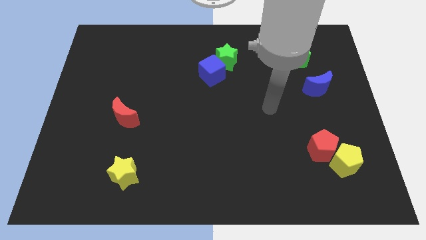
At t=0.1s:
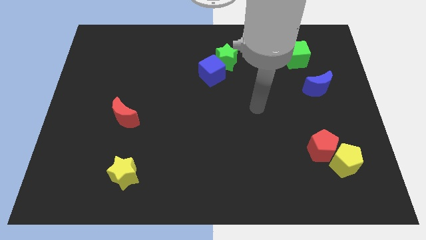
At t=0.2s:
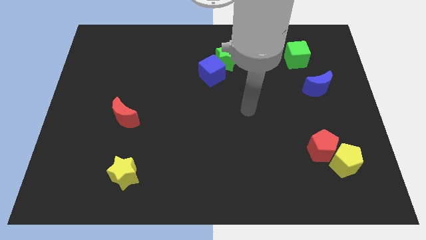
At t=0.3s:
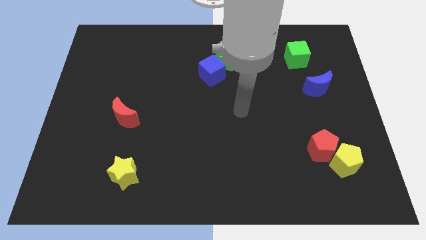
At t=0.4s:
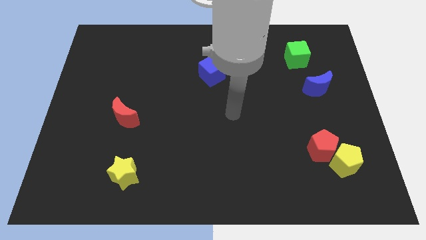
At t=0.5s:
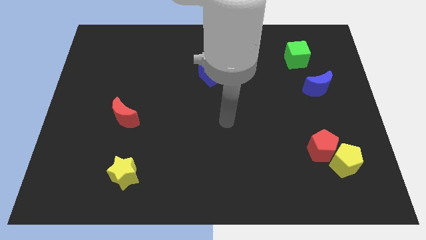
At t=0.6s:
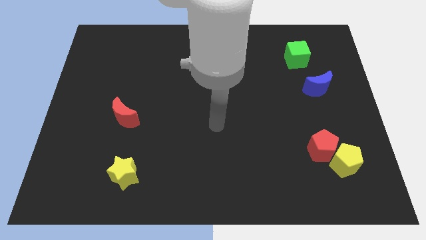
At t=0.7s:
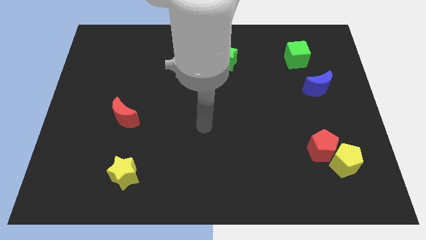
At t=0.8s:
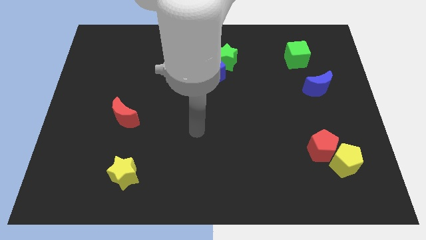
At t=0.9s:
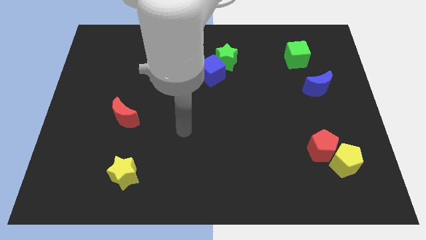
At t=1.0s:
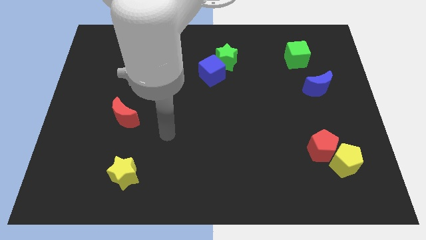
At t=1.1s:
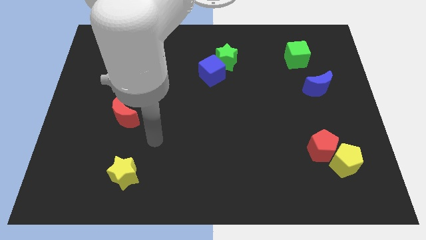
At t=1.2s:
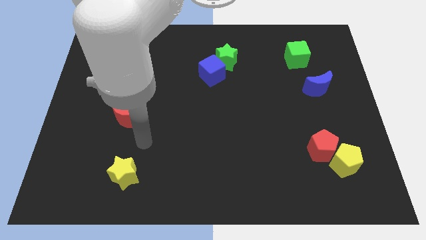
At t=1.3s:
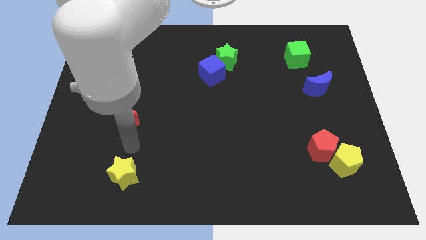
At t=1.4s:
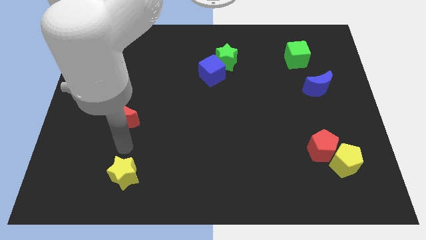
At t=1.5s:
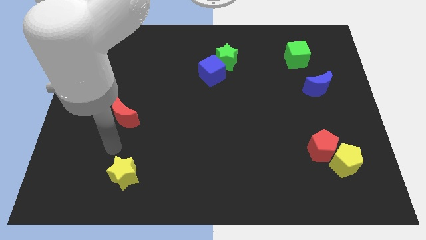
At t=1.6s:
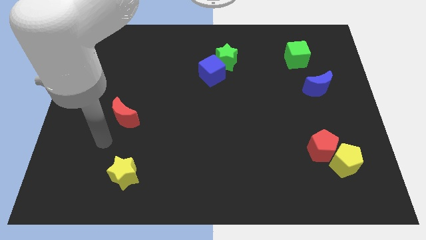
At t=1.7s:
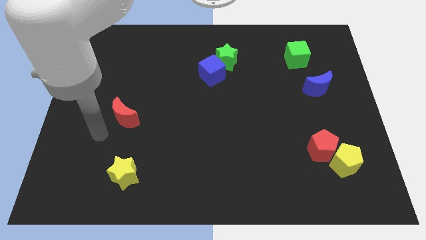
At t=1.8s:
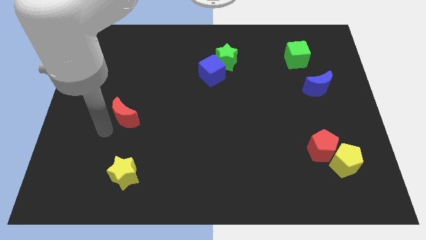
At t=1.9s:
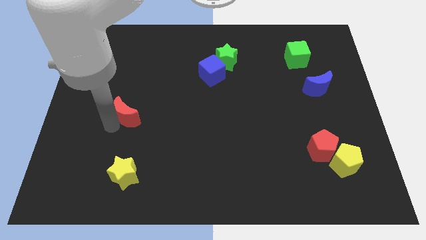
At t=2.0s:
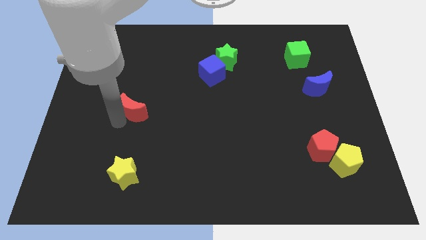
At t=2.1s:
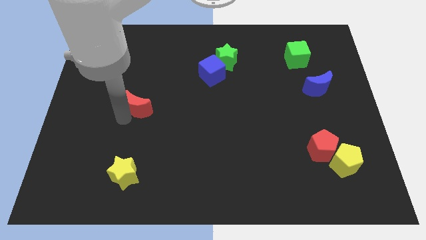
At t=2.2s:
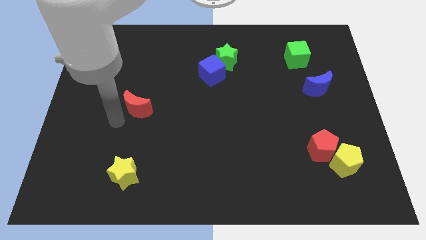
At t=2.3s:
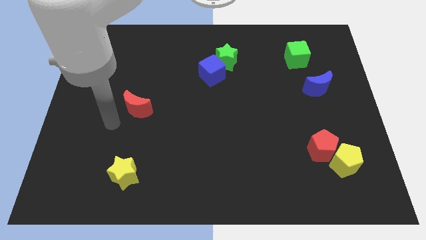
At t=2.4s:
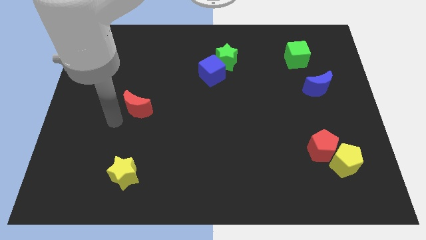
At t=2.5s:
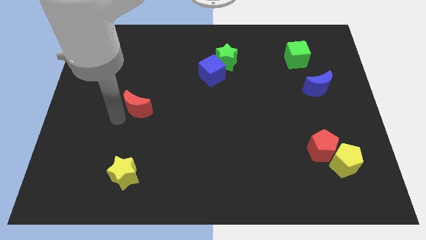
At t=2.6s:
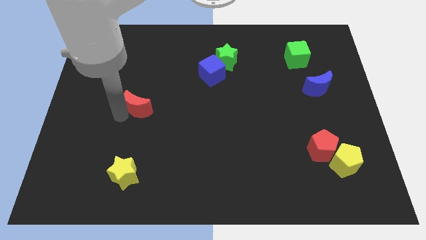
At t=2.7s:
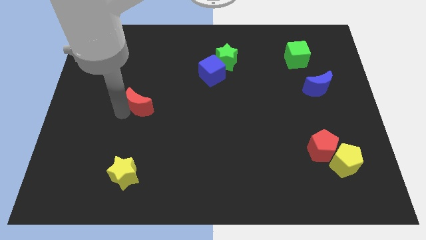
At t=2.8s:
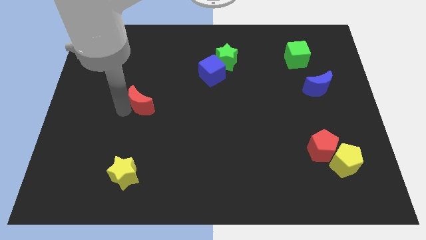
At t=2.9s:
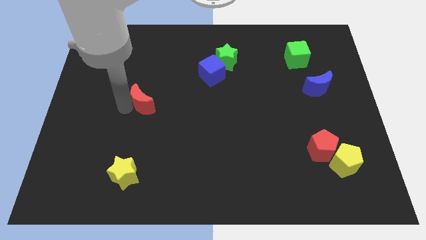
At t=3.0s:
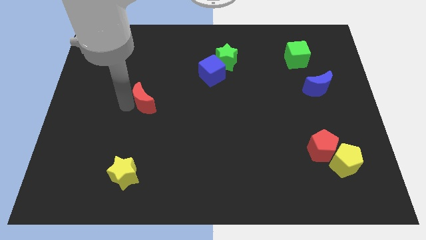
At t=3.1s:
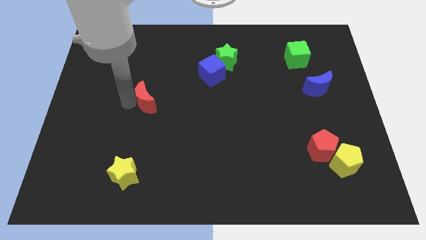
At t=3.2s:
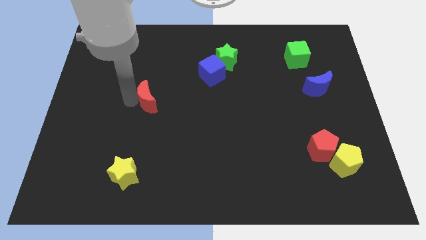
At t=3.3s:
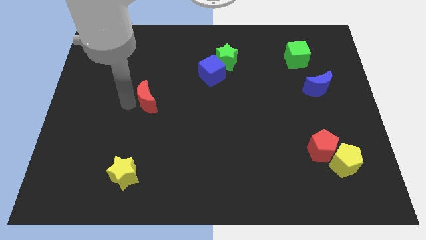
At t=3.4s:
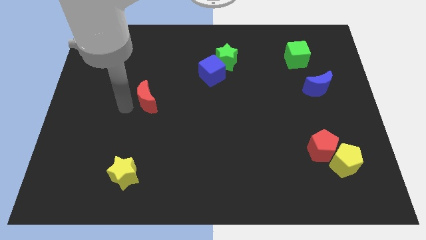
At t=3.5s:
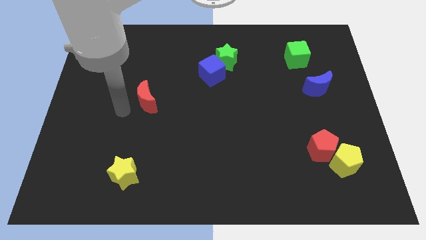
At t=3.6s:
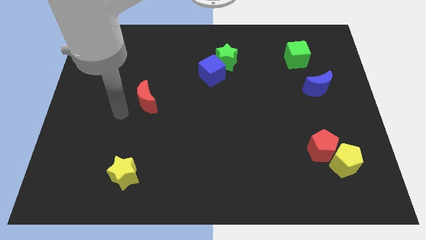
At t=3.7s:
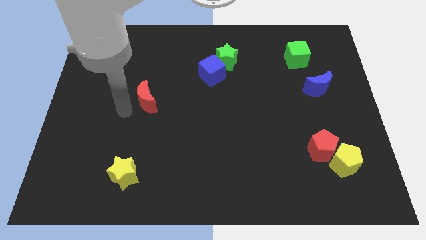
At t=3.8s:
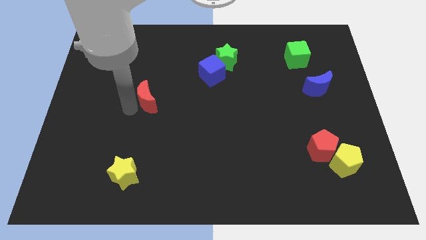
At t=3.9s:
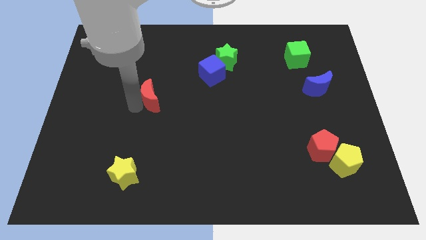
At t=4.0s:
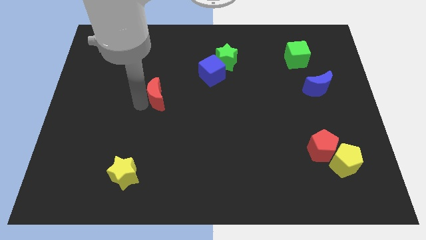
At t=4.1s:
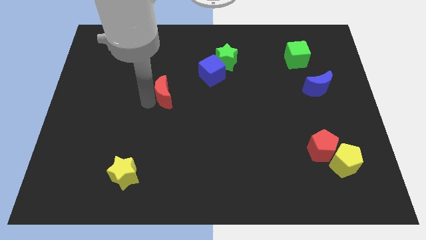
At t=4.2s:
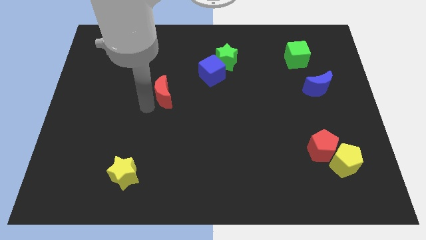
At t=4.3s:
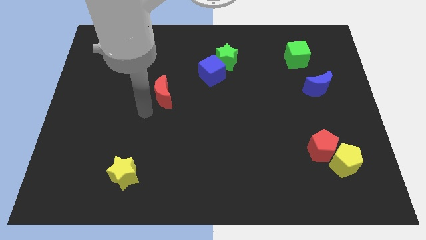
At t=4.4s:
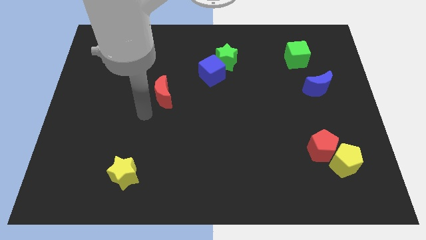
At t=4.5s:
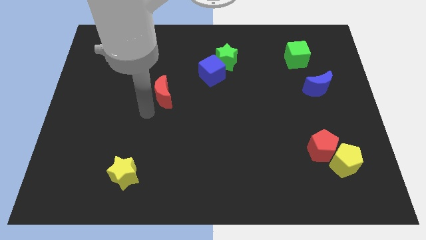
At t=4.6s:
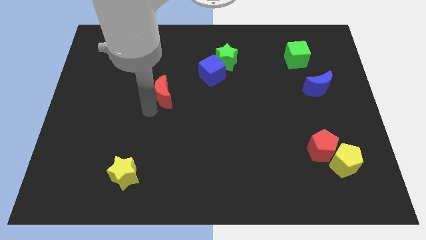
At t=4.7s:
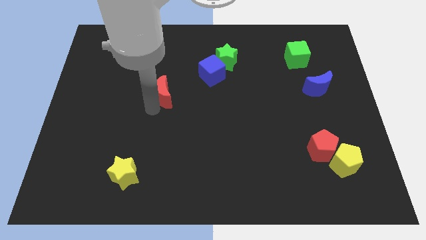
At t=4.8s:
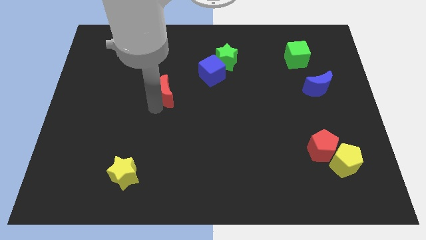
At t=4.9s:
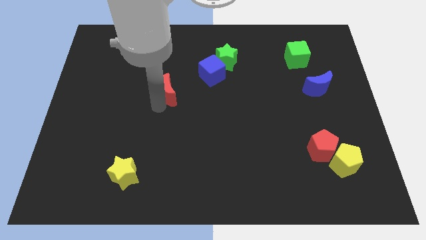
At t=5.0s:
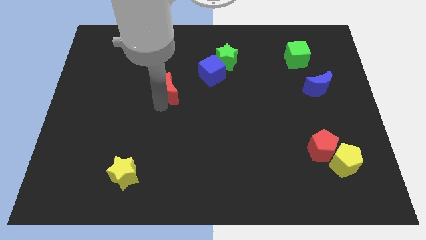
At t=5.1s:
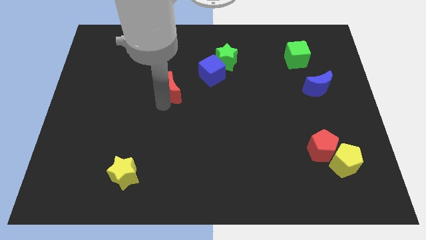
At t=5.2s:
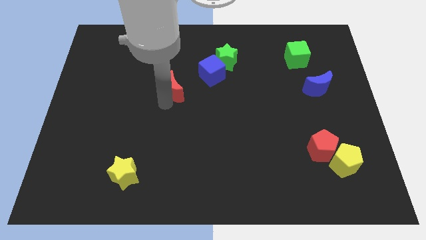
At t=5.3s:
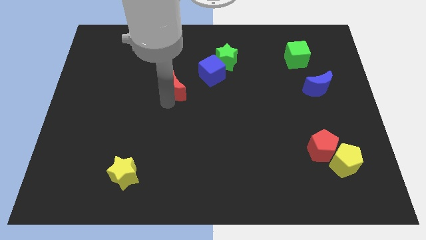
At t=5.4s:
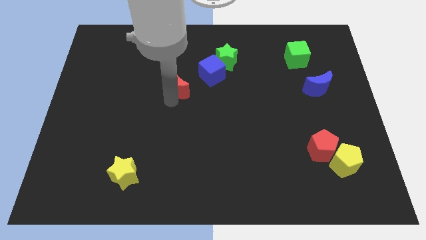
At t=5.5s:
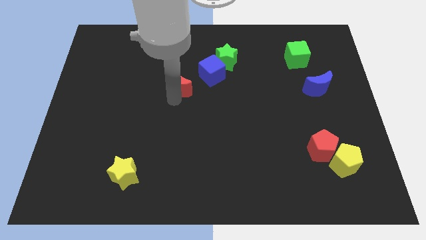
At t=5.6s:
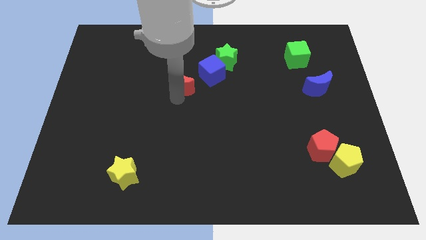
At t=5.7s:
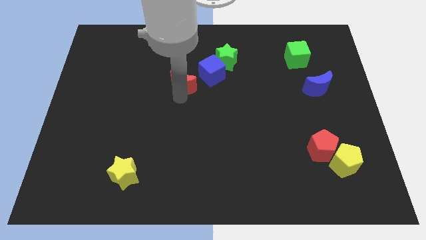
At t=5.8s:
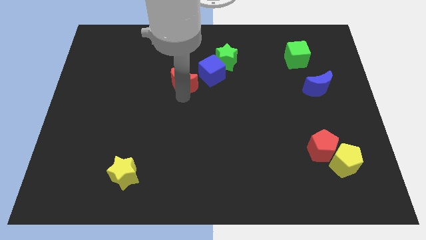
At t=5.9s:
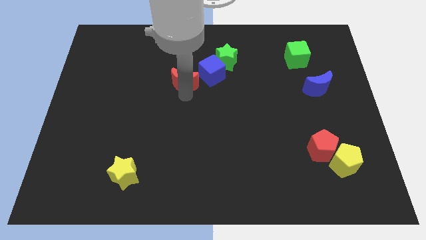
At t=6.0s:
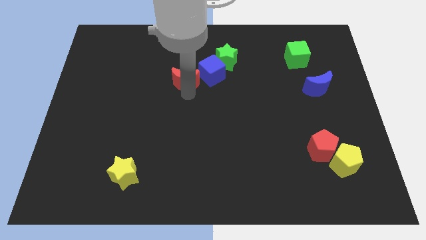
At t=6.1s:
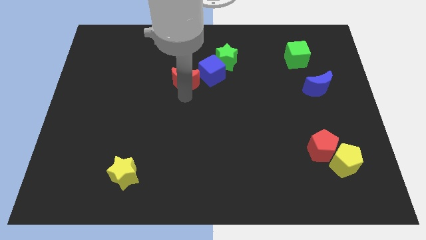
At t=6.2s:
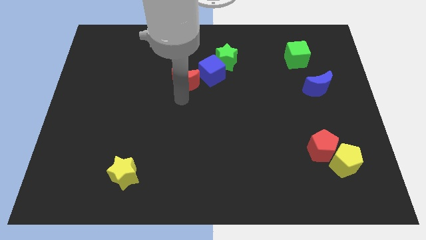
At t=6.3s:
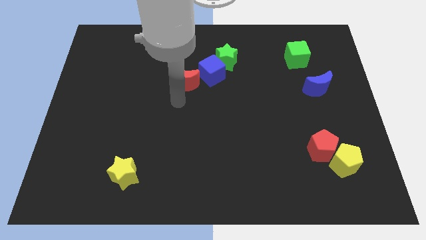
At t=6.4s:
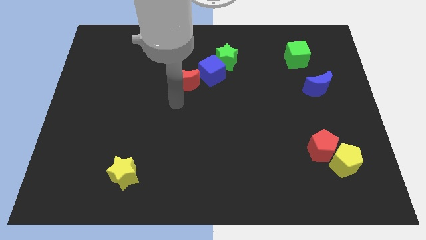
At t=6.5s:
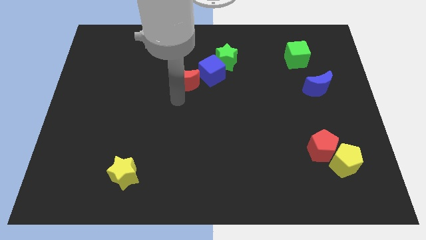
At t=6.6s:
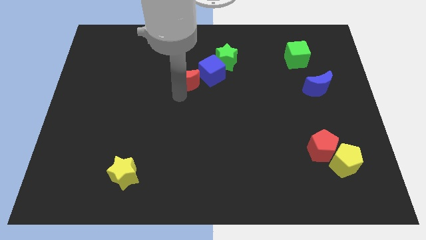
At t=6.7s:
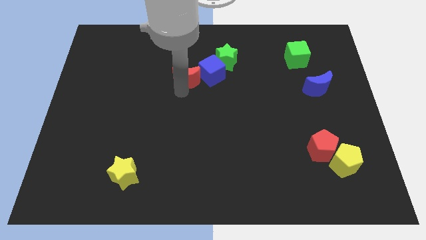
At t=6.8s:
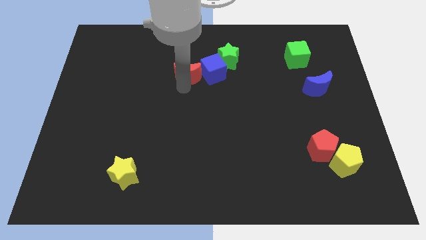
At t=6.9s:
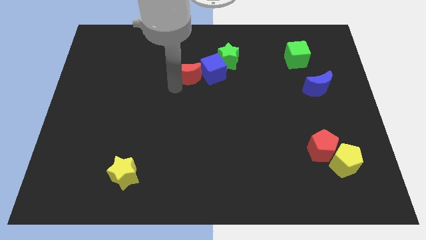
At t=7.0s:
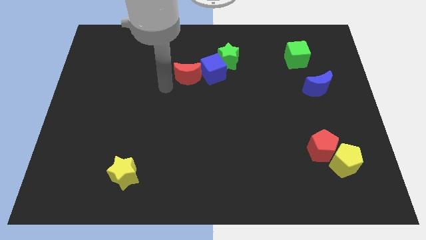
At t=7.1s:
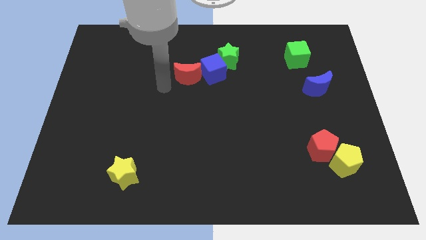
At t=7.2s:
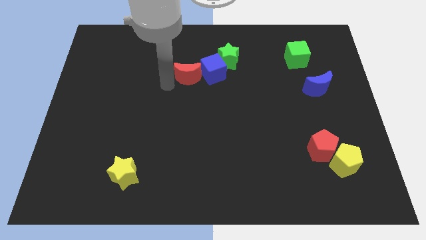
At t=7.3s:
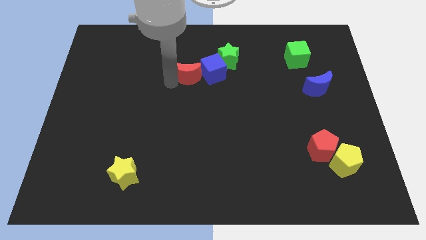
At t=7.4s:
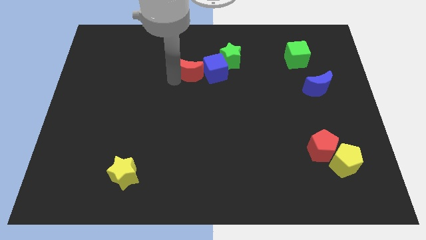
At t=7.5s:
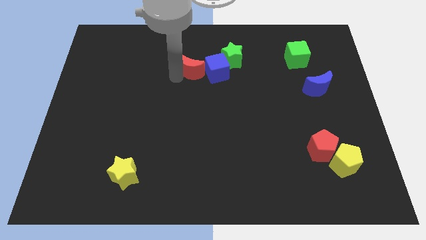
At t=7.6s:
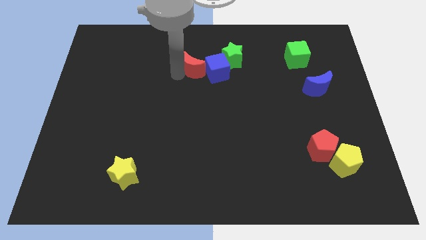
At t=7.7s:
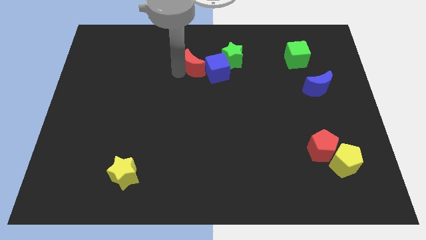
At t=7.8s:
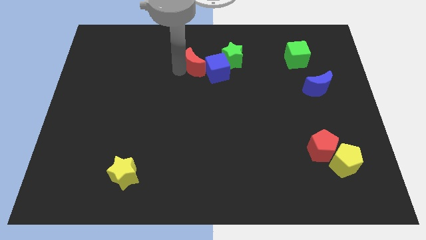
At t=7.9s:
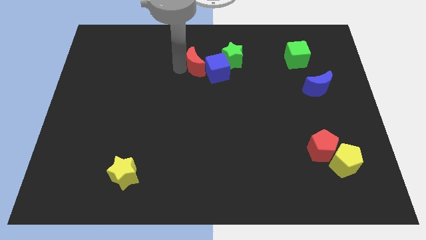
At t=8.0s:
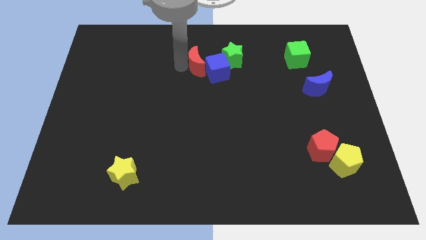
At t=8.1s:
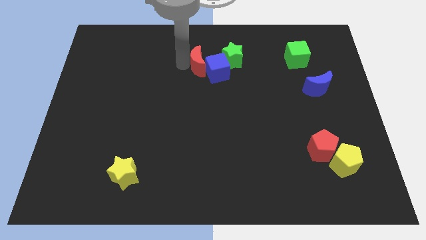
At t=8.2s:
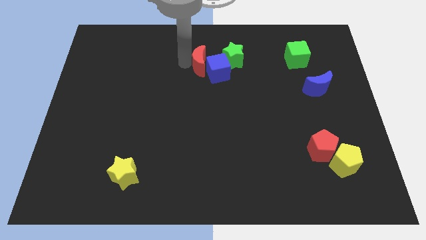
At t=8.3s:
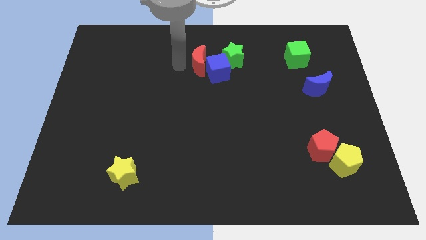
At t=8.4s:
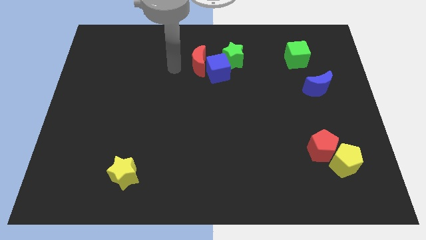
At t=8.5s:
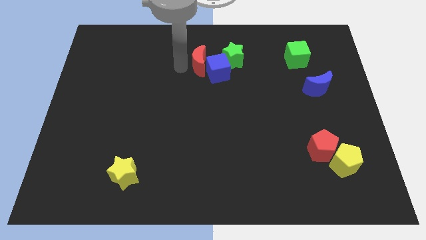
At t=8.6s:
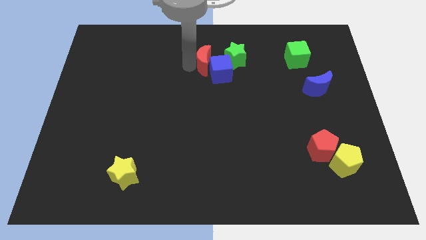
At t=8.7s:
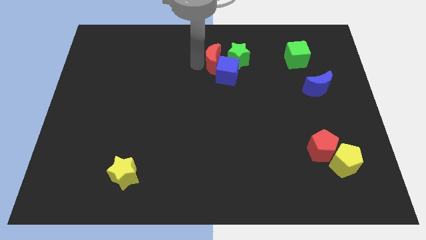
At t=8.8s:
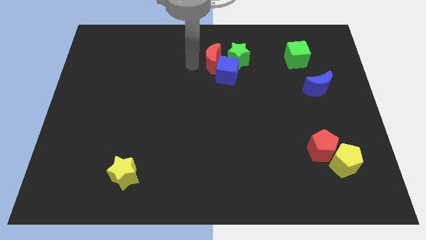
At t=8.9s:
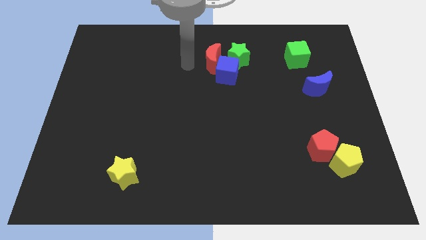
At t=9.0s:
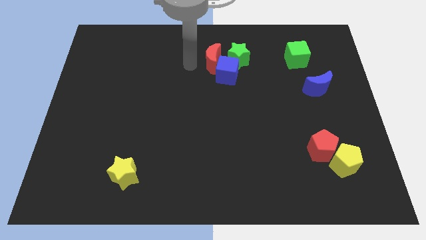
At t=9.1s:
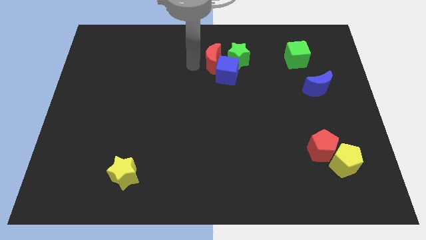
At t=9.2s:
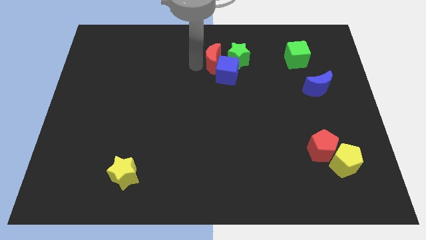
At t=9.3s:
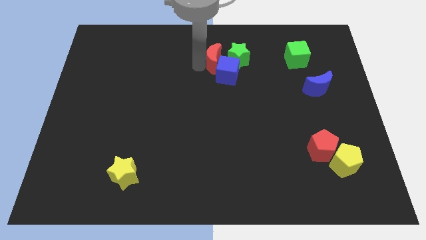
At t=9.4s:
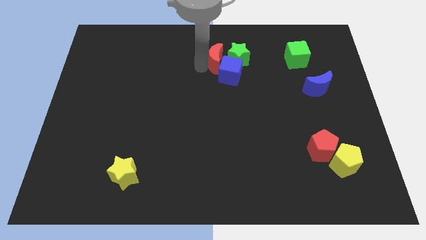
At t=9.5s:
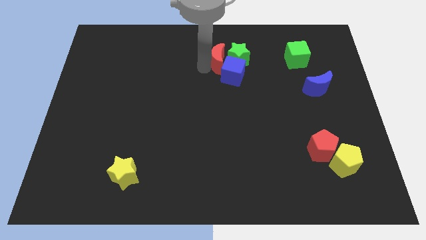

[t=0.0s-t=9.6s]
put the red moon next to the green star
